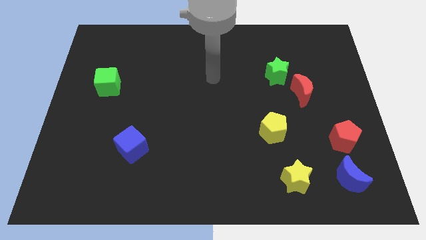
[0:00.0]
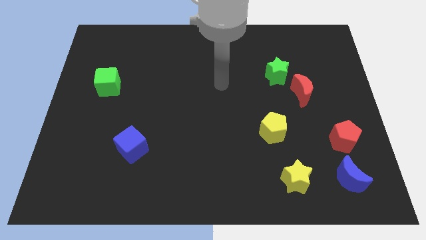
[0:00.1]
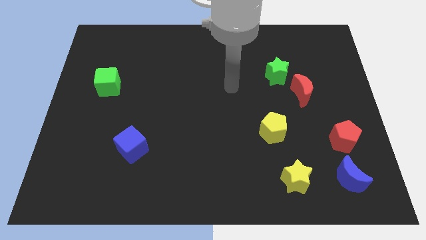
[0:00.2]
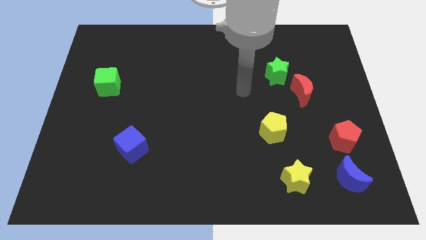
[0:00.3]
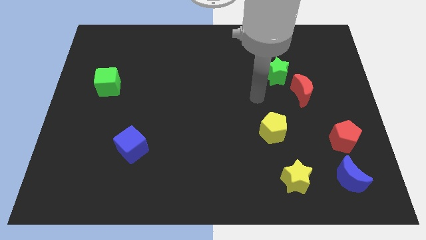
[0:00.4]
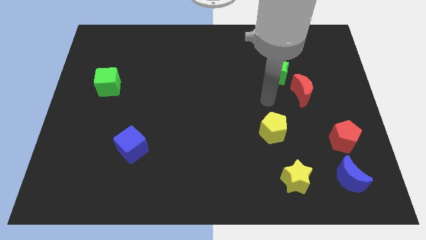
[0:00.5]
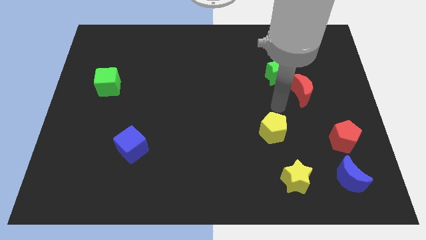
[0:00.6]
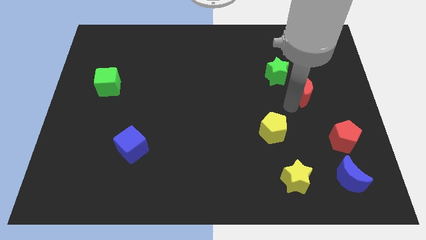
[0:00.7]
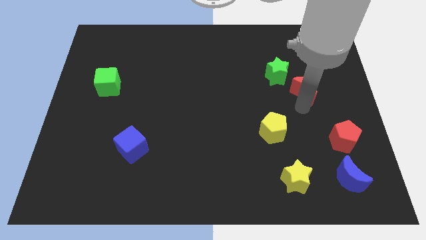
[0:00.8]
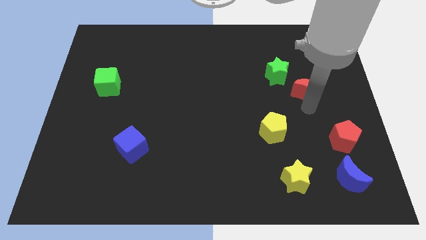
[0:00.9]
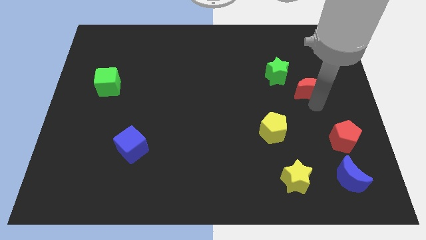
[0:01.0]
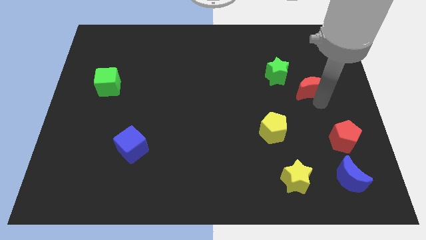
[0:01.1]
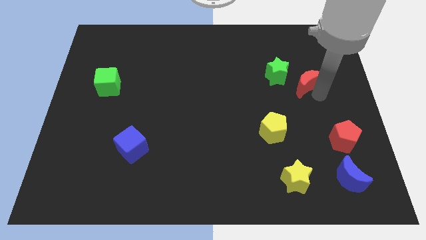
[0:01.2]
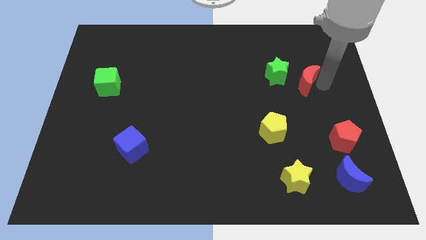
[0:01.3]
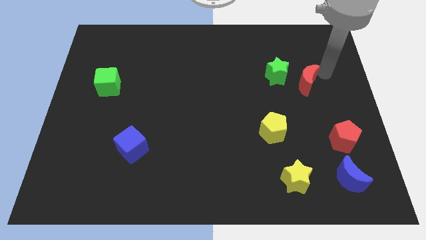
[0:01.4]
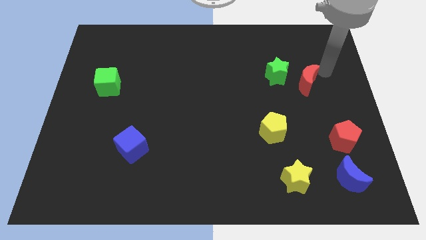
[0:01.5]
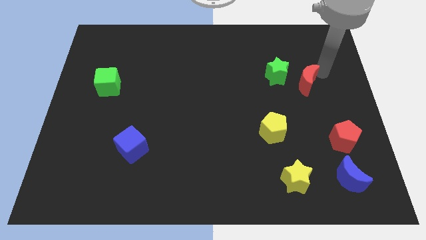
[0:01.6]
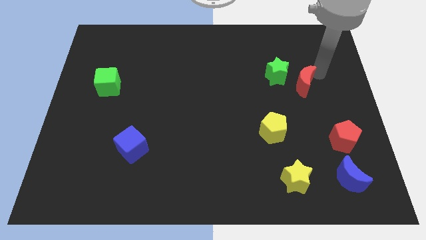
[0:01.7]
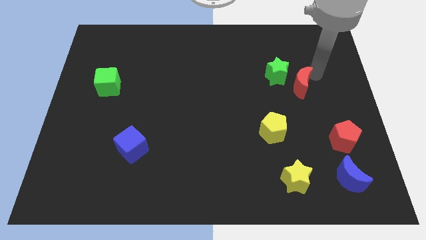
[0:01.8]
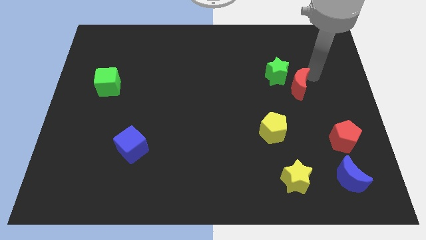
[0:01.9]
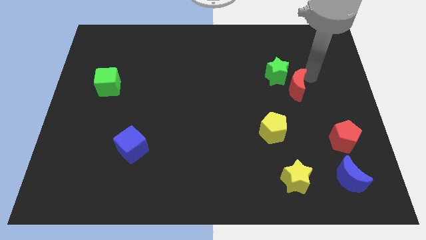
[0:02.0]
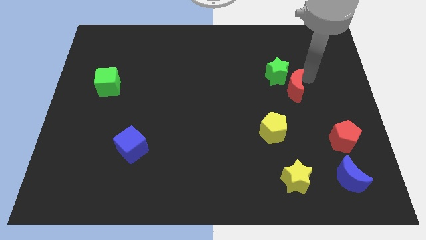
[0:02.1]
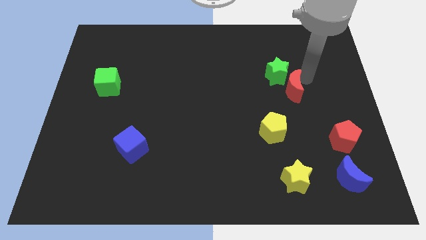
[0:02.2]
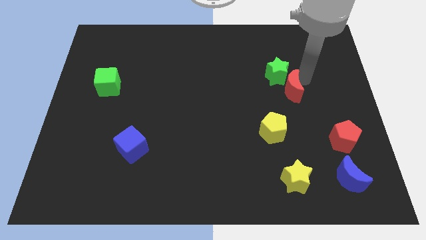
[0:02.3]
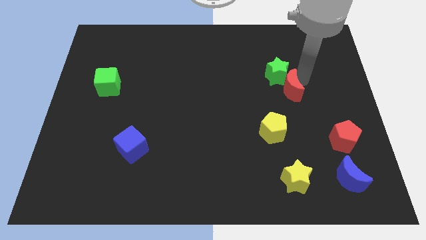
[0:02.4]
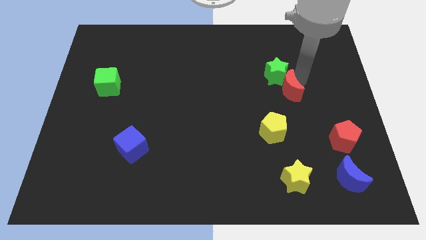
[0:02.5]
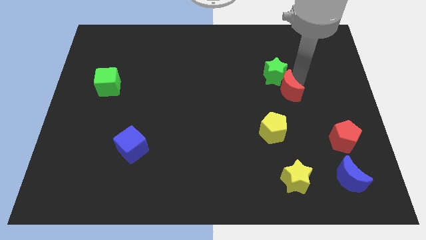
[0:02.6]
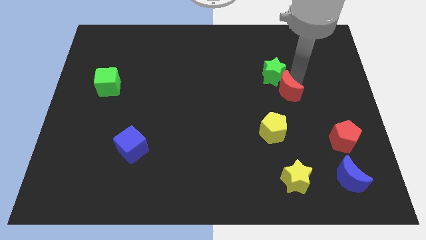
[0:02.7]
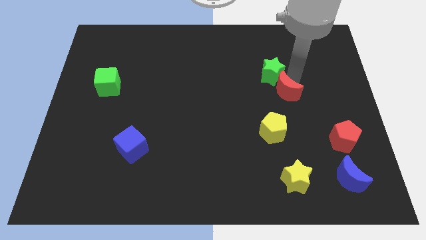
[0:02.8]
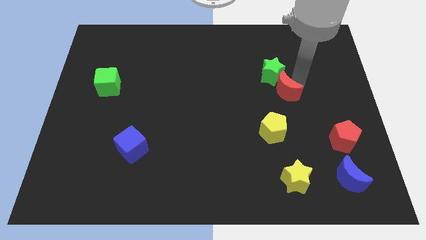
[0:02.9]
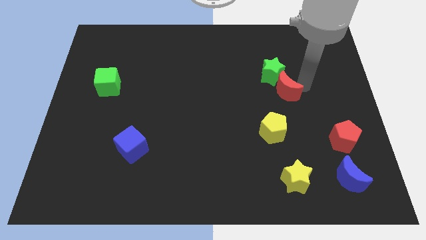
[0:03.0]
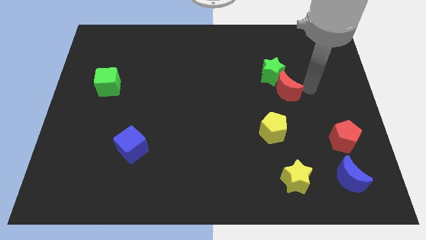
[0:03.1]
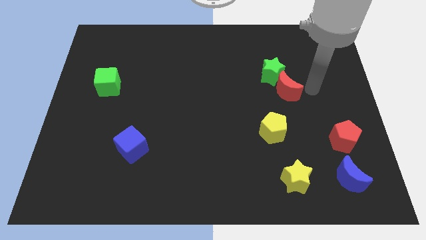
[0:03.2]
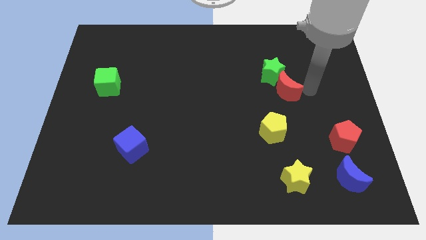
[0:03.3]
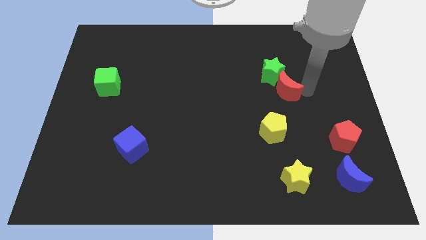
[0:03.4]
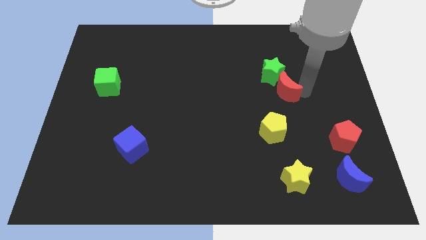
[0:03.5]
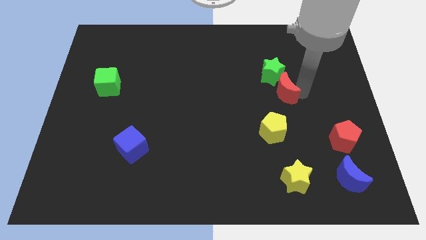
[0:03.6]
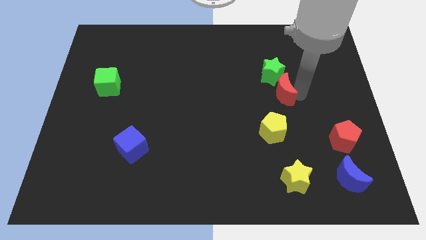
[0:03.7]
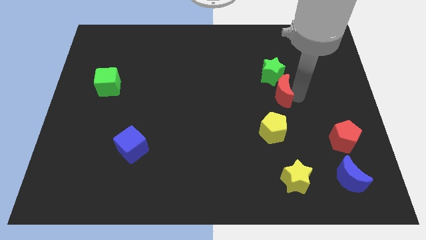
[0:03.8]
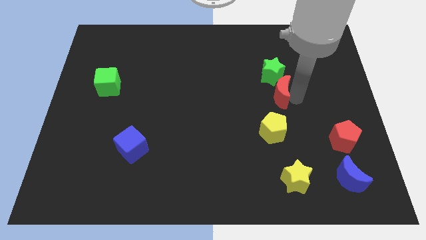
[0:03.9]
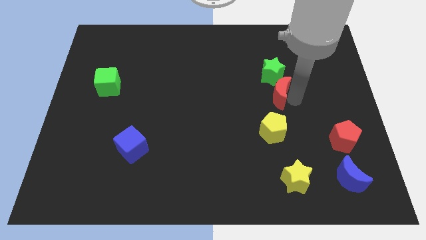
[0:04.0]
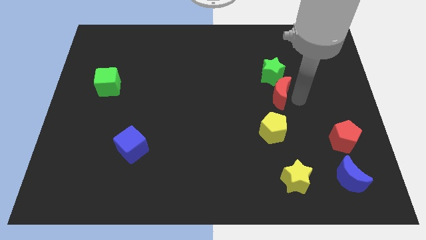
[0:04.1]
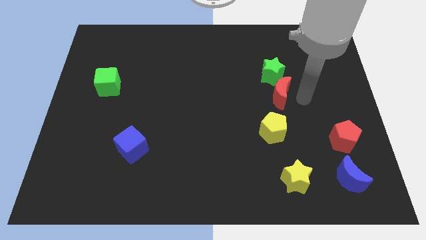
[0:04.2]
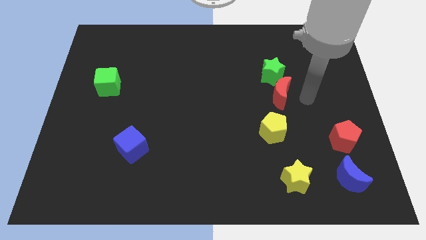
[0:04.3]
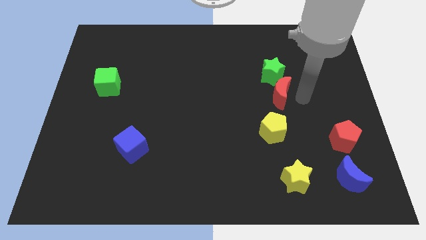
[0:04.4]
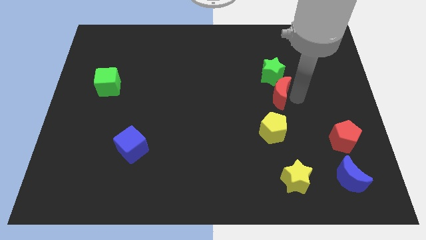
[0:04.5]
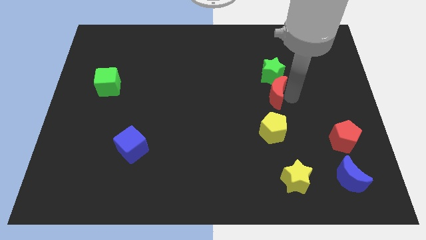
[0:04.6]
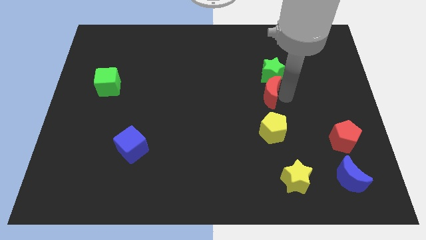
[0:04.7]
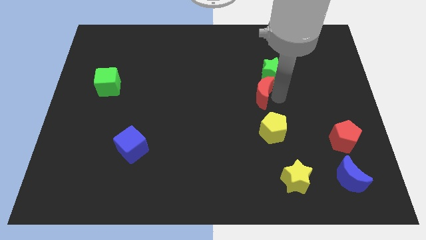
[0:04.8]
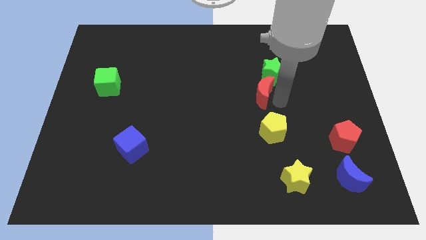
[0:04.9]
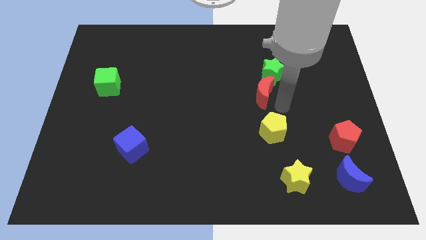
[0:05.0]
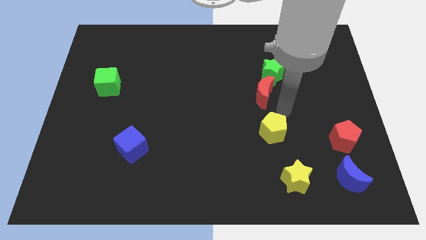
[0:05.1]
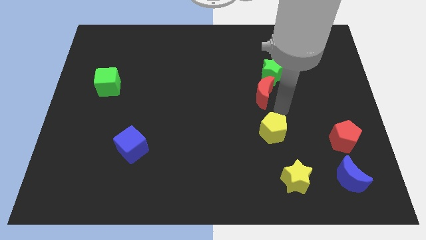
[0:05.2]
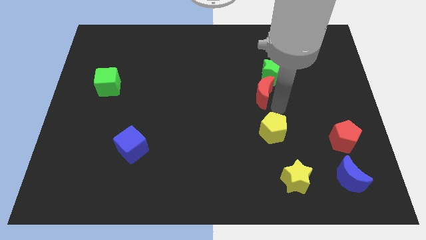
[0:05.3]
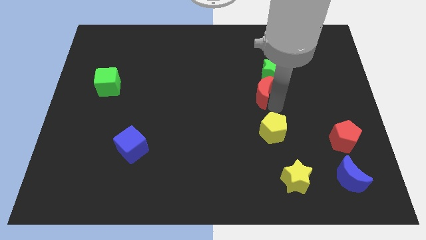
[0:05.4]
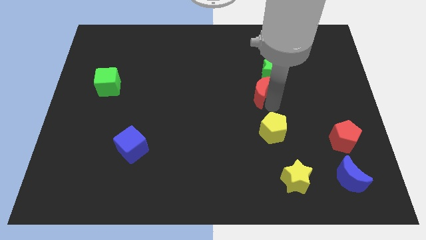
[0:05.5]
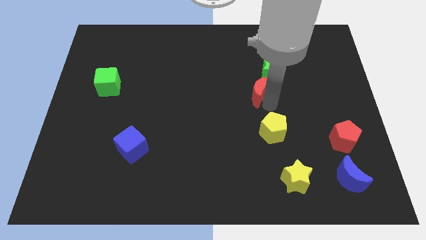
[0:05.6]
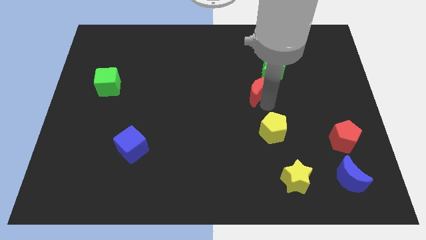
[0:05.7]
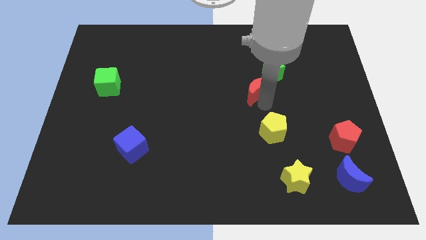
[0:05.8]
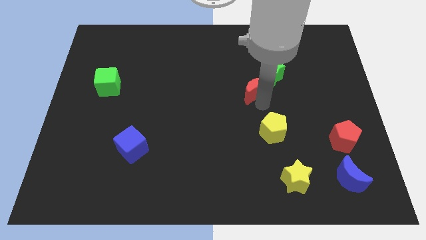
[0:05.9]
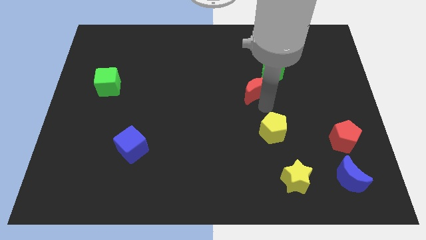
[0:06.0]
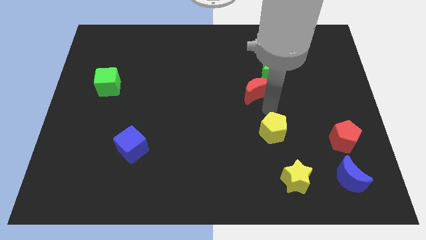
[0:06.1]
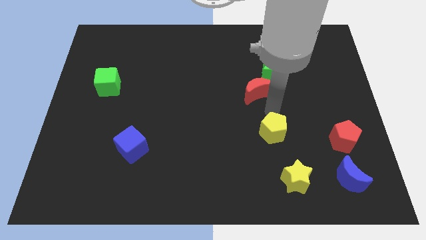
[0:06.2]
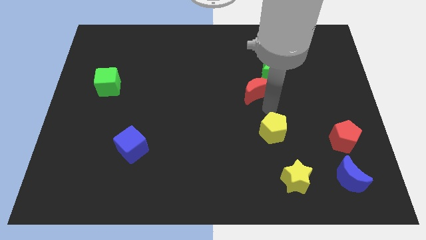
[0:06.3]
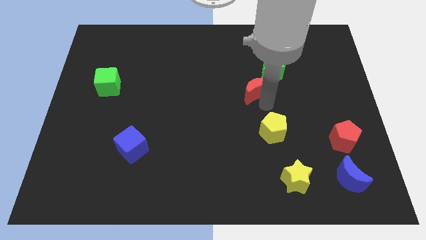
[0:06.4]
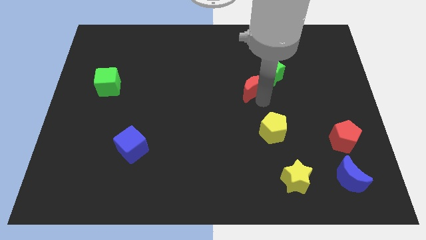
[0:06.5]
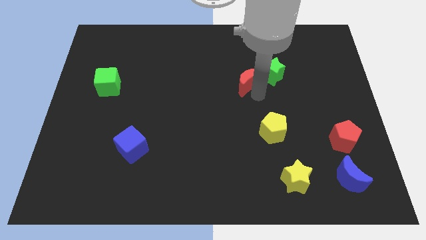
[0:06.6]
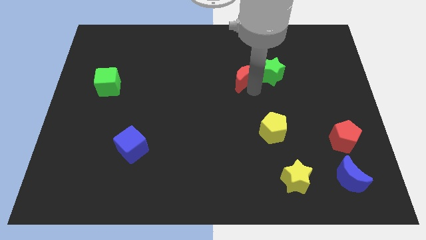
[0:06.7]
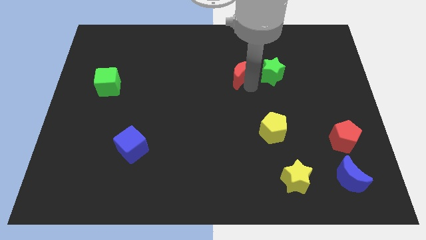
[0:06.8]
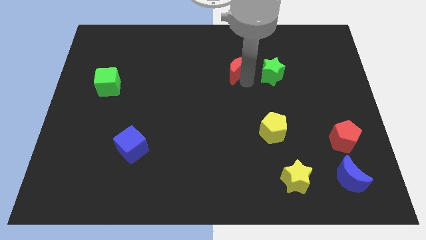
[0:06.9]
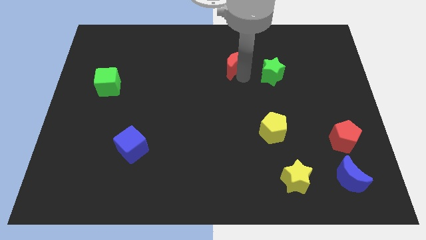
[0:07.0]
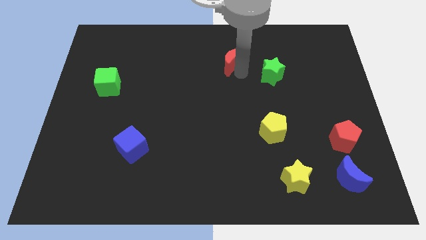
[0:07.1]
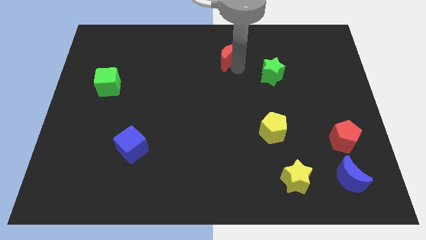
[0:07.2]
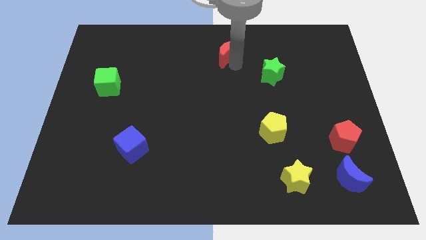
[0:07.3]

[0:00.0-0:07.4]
slide the red moon to the towards your base
